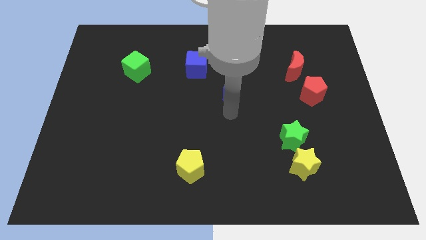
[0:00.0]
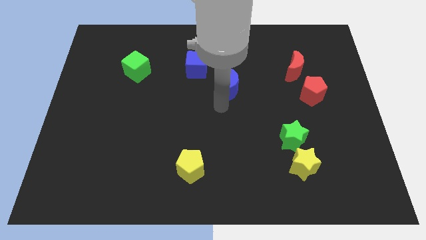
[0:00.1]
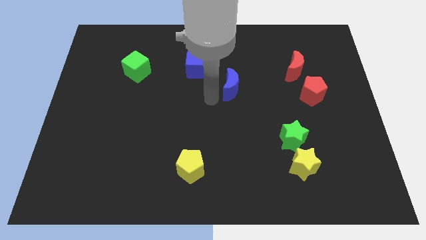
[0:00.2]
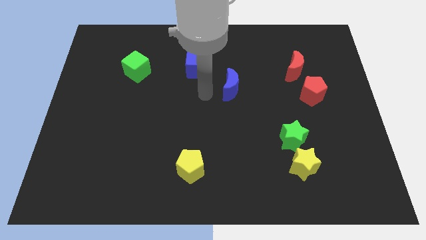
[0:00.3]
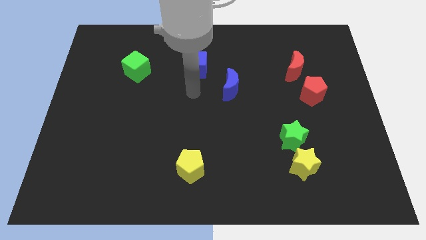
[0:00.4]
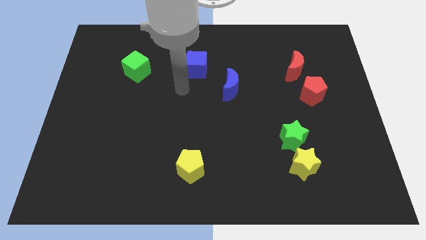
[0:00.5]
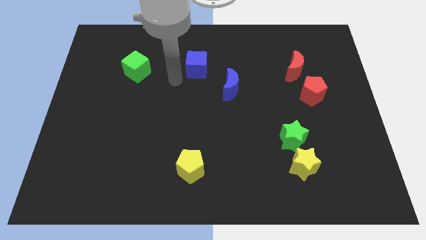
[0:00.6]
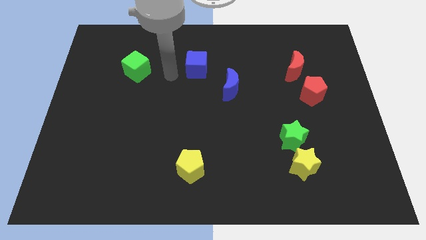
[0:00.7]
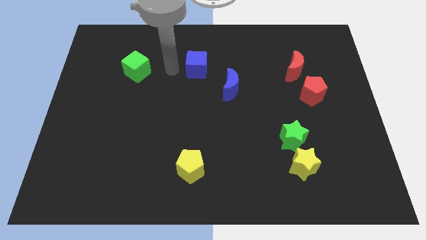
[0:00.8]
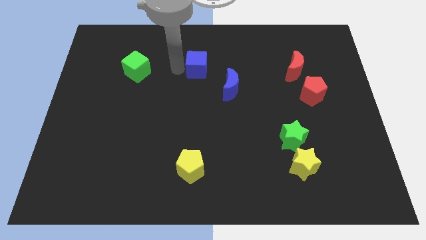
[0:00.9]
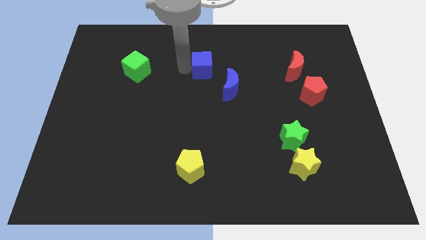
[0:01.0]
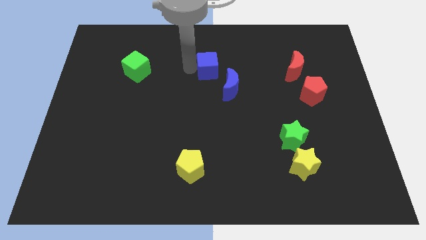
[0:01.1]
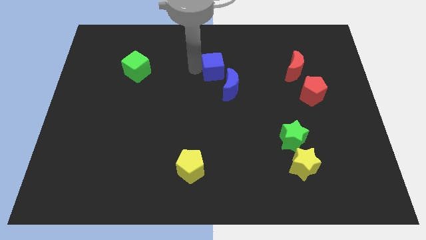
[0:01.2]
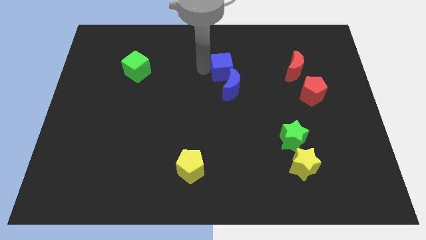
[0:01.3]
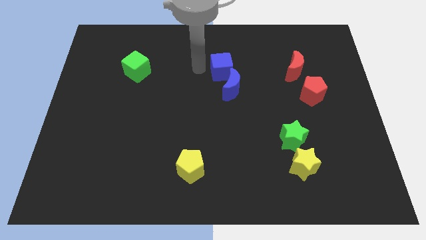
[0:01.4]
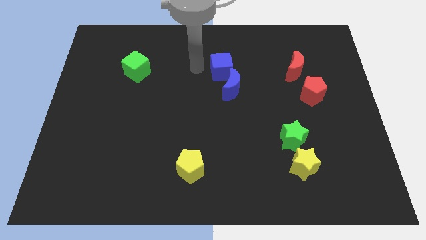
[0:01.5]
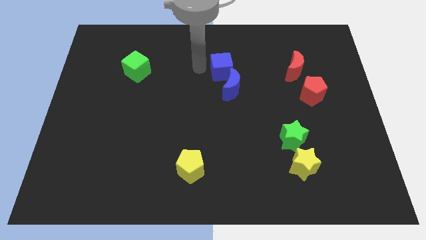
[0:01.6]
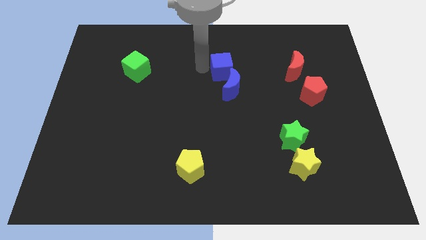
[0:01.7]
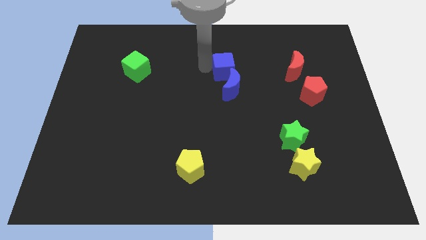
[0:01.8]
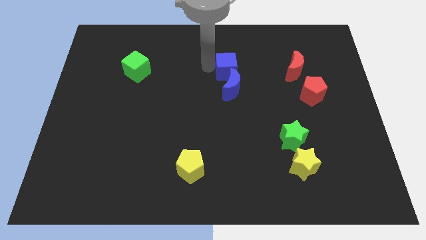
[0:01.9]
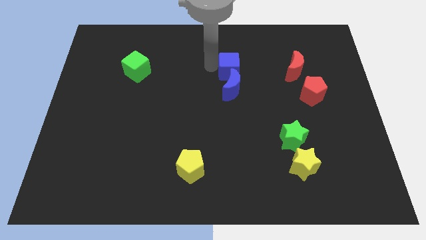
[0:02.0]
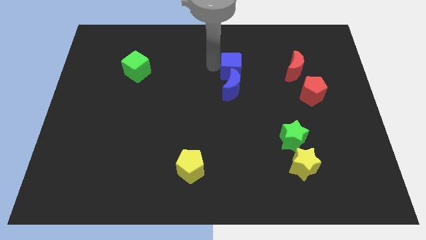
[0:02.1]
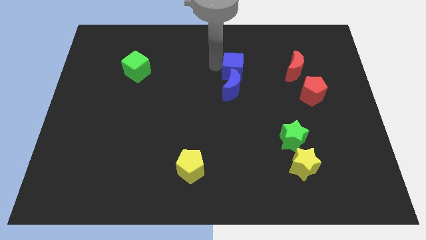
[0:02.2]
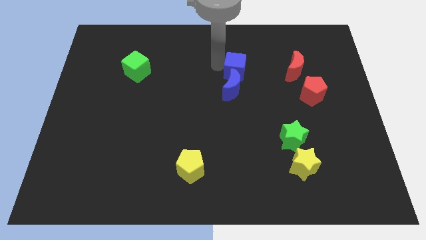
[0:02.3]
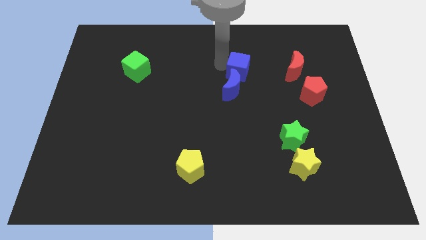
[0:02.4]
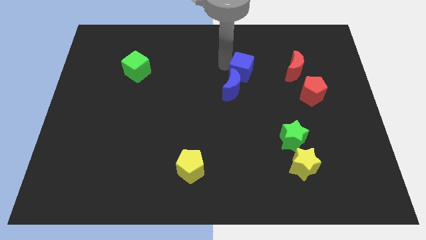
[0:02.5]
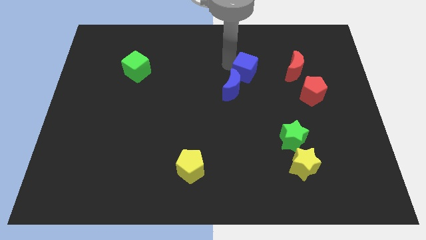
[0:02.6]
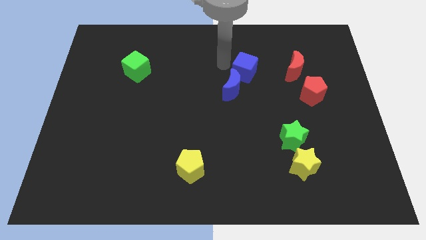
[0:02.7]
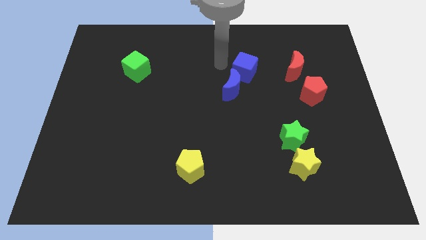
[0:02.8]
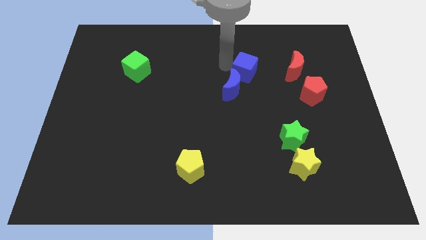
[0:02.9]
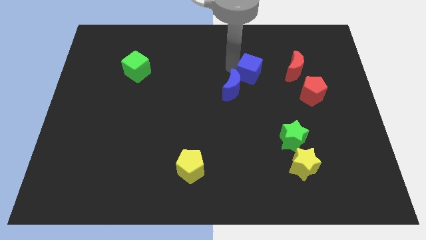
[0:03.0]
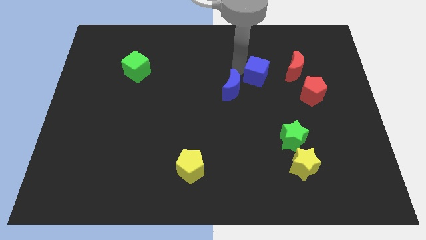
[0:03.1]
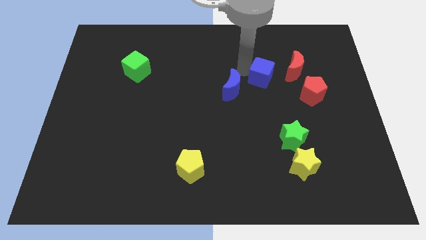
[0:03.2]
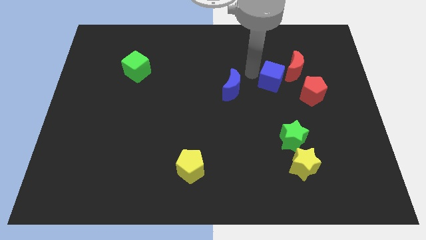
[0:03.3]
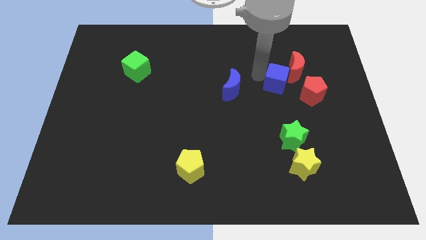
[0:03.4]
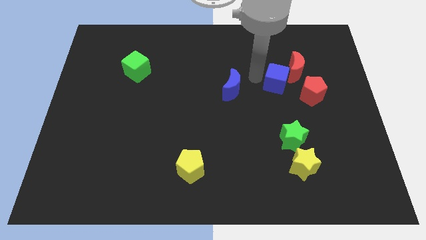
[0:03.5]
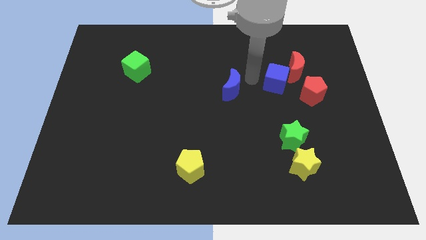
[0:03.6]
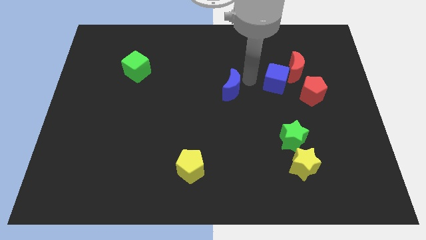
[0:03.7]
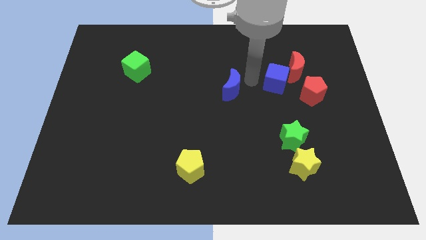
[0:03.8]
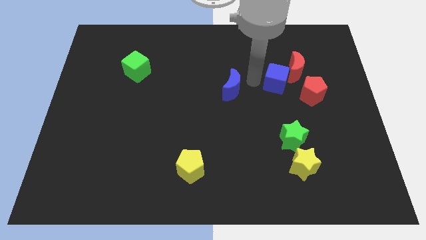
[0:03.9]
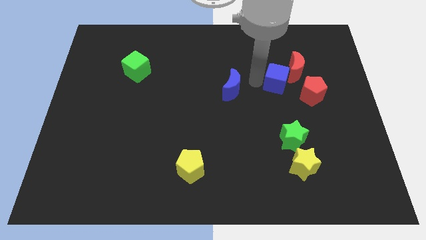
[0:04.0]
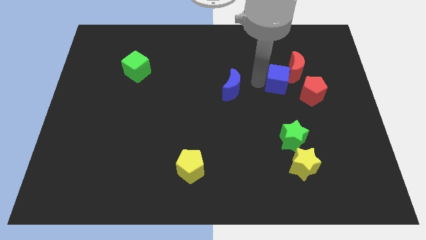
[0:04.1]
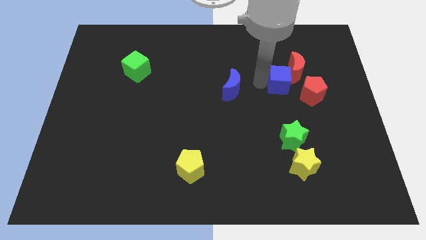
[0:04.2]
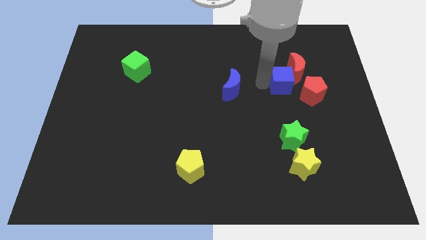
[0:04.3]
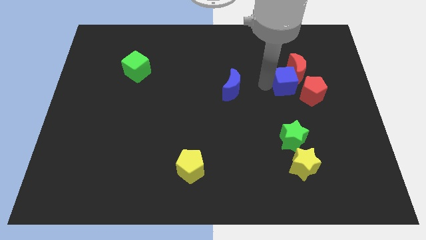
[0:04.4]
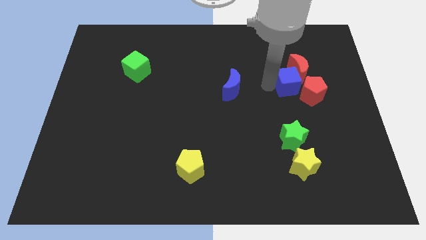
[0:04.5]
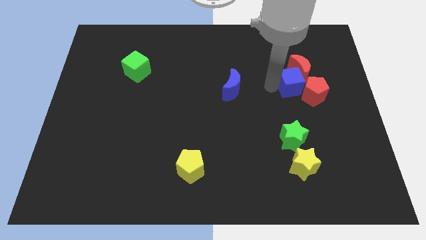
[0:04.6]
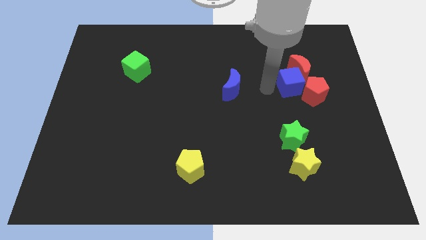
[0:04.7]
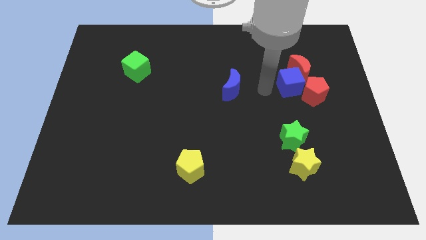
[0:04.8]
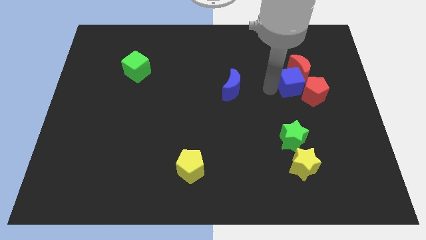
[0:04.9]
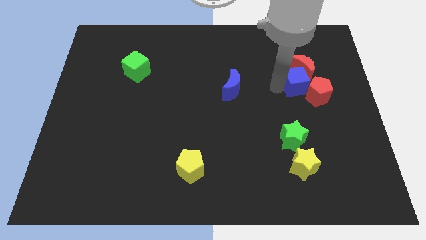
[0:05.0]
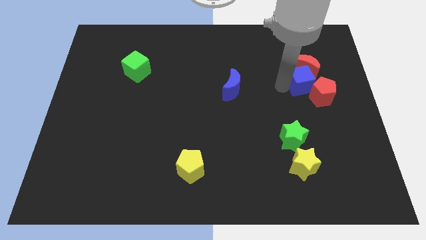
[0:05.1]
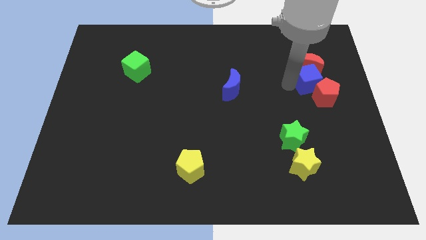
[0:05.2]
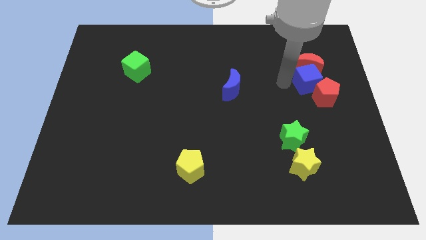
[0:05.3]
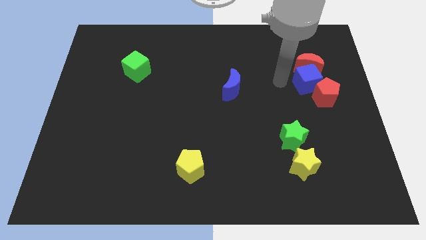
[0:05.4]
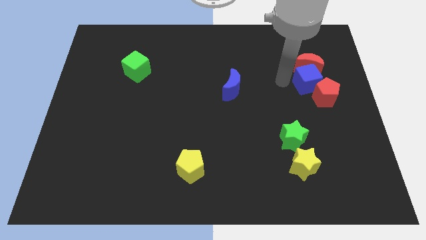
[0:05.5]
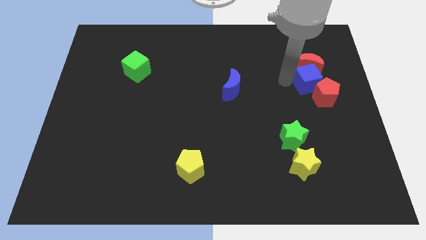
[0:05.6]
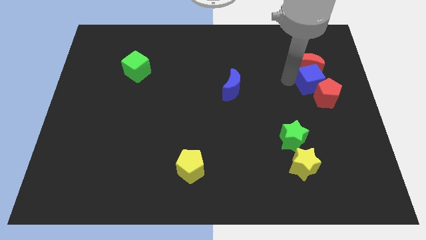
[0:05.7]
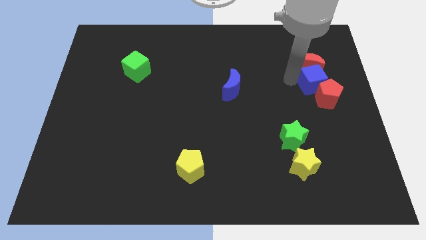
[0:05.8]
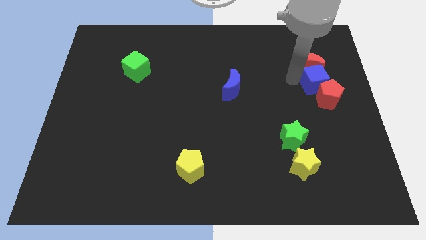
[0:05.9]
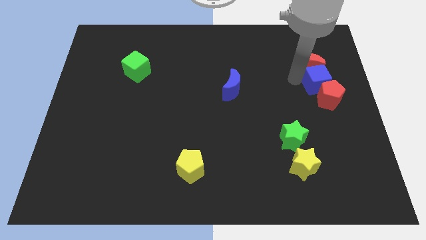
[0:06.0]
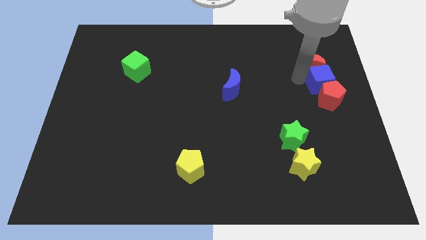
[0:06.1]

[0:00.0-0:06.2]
move the blue cube to the right side of the board
